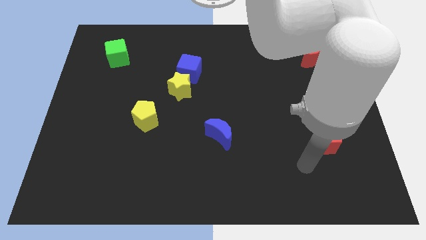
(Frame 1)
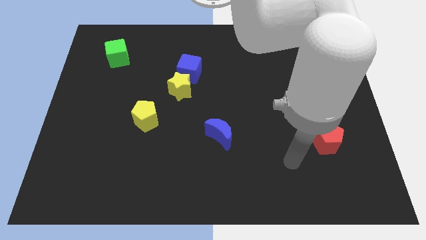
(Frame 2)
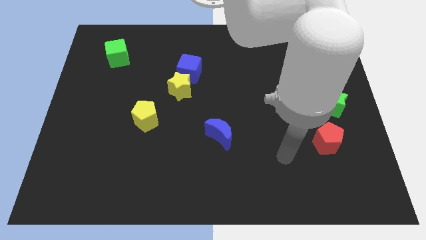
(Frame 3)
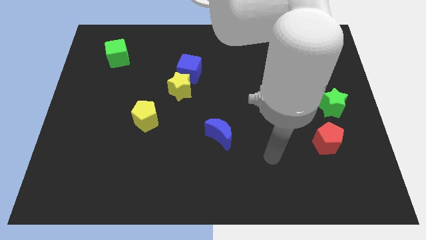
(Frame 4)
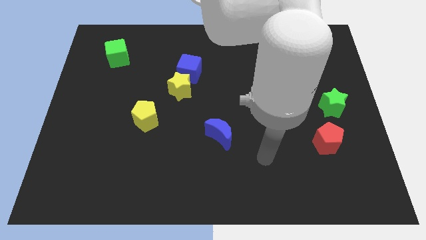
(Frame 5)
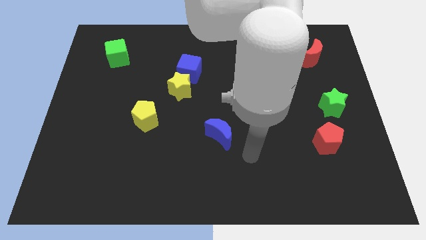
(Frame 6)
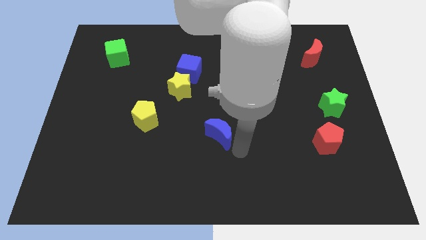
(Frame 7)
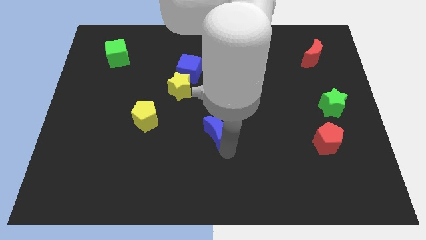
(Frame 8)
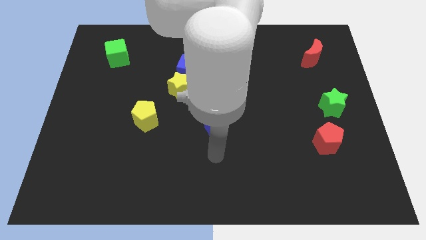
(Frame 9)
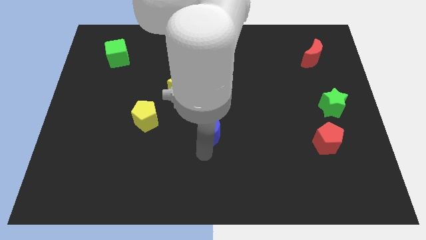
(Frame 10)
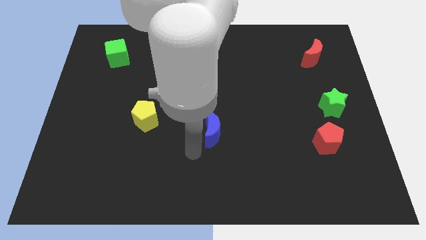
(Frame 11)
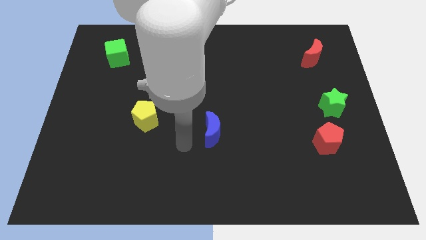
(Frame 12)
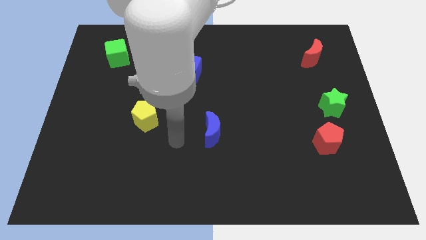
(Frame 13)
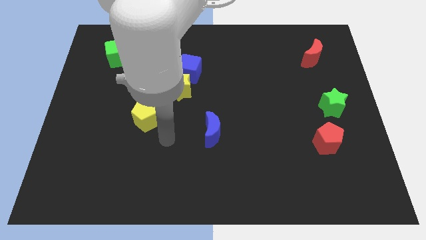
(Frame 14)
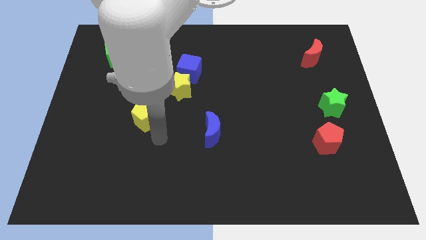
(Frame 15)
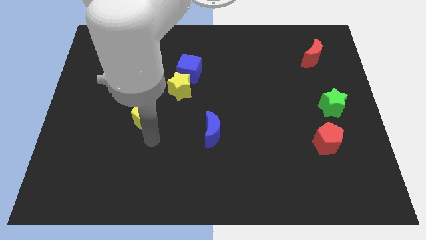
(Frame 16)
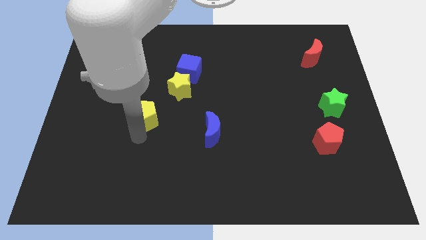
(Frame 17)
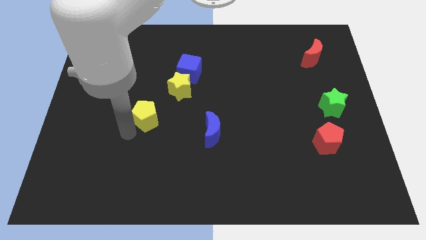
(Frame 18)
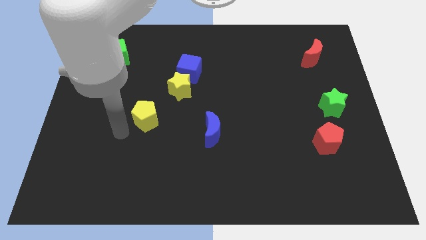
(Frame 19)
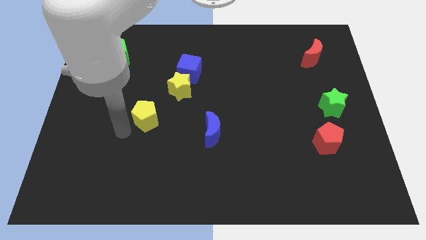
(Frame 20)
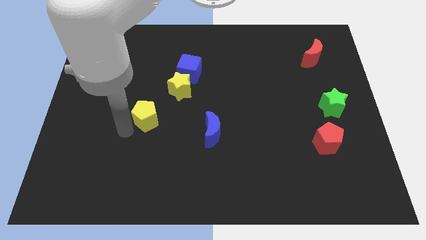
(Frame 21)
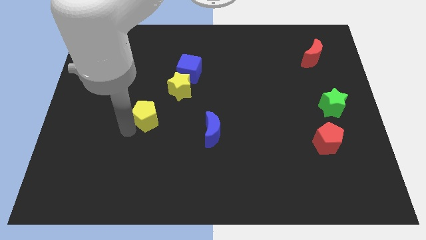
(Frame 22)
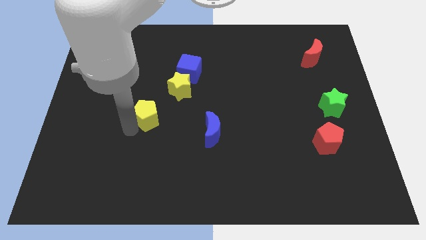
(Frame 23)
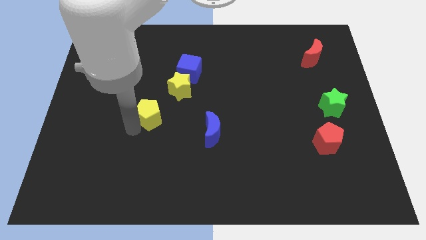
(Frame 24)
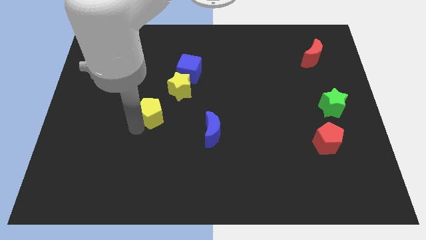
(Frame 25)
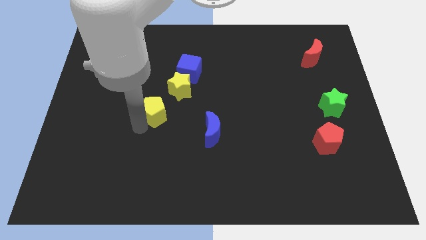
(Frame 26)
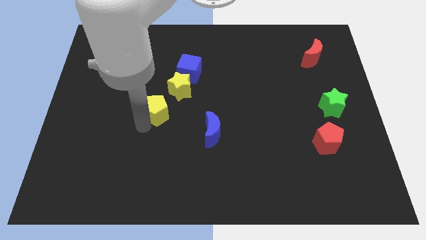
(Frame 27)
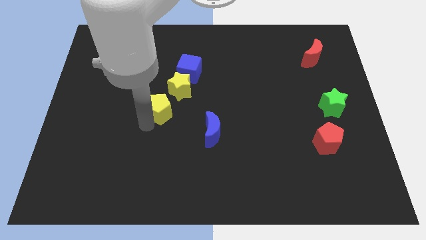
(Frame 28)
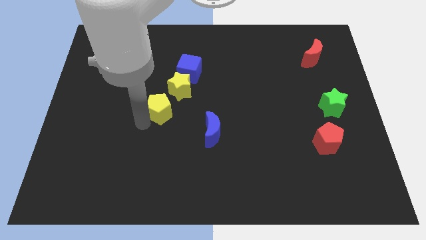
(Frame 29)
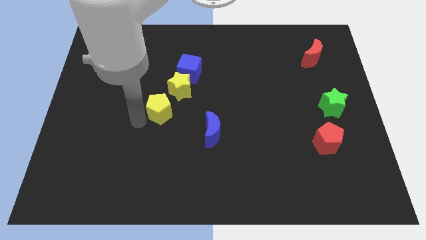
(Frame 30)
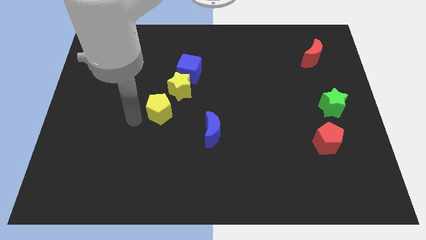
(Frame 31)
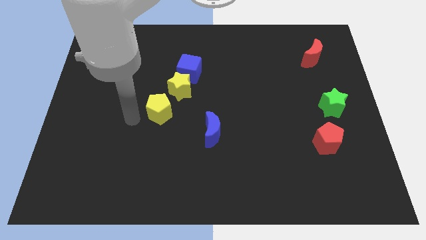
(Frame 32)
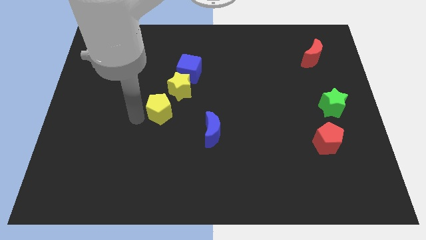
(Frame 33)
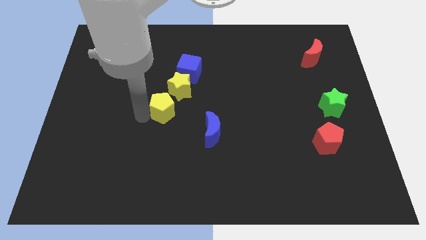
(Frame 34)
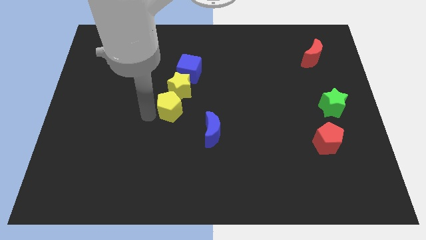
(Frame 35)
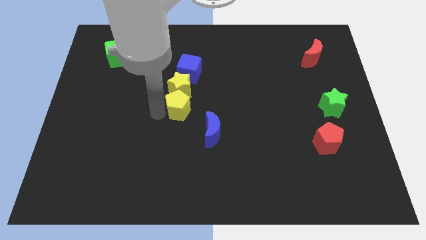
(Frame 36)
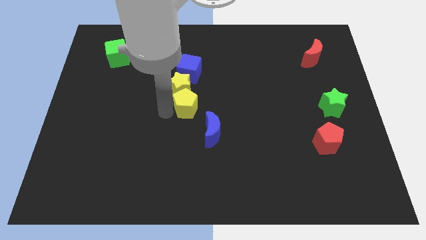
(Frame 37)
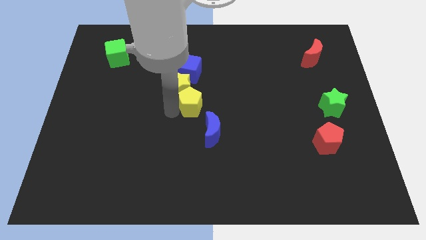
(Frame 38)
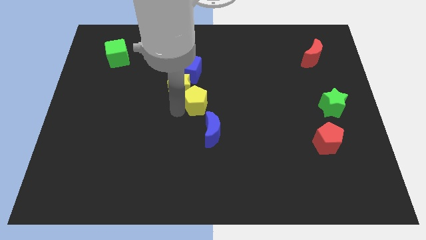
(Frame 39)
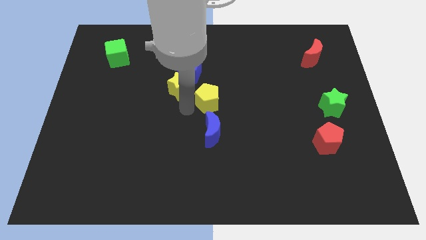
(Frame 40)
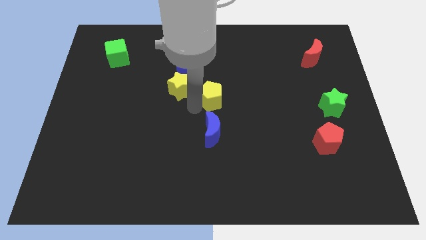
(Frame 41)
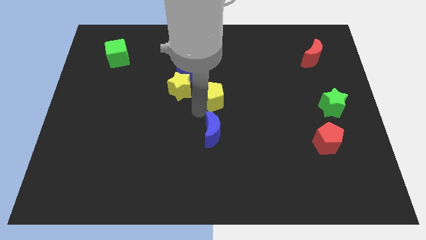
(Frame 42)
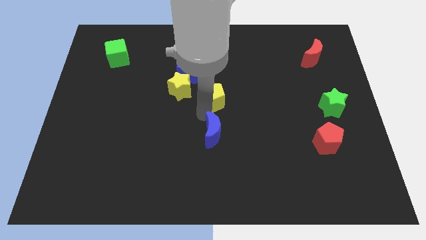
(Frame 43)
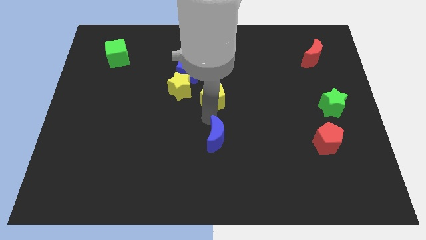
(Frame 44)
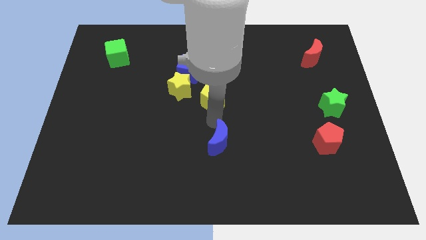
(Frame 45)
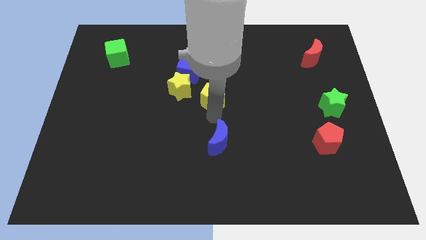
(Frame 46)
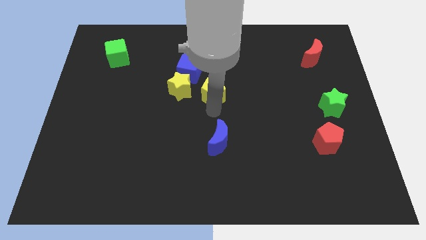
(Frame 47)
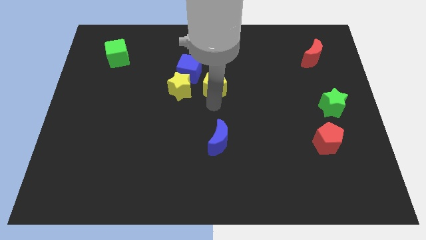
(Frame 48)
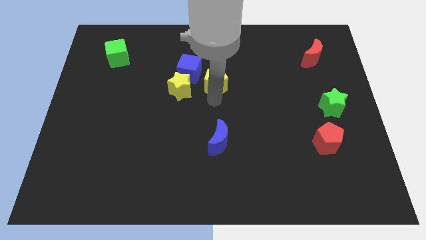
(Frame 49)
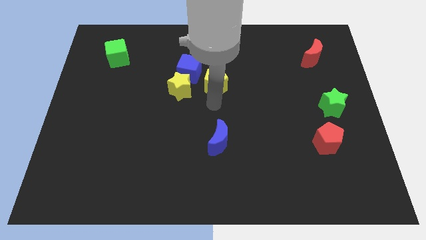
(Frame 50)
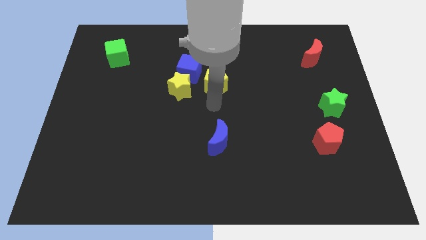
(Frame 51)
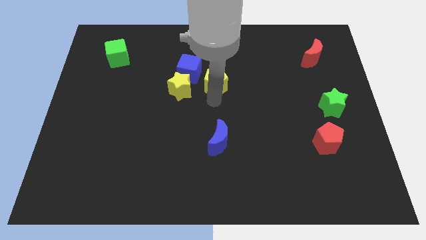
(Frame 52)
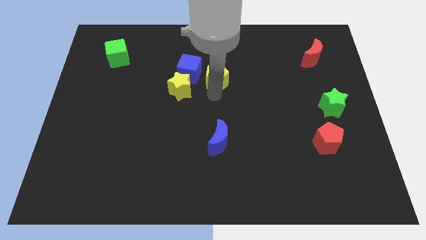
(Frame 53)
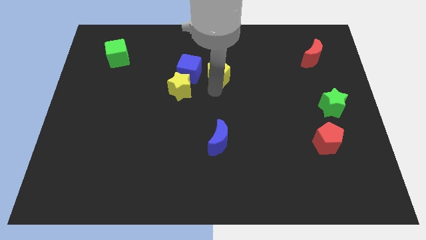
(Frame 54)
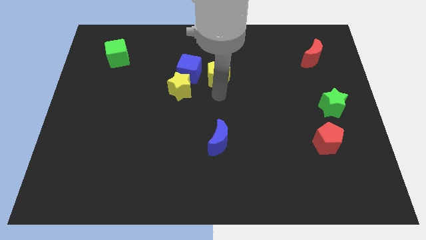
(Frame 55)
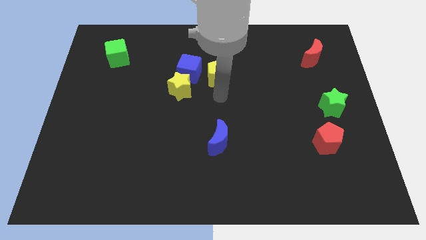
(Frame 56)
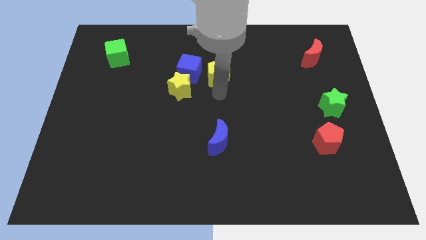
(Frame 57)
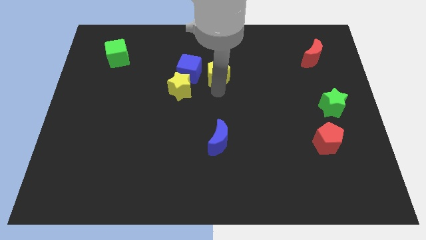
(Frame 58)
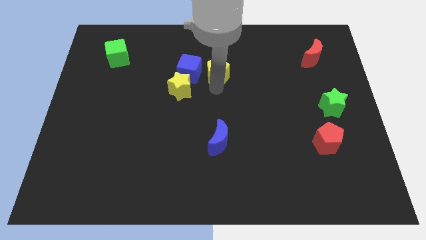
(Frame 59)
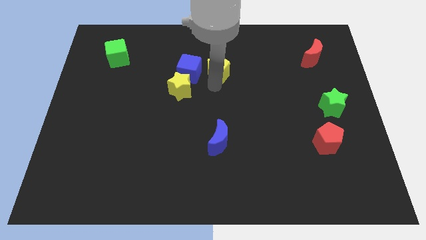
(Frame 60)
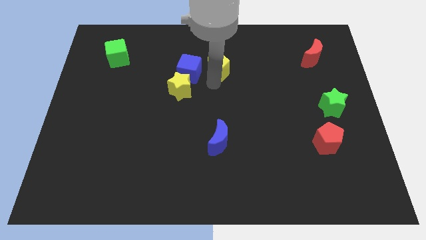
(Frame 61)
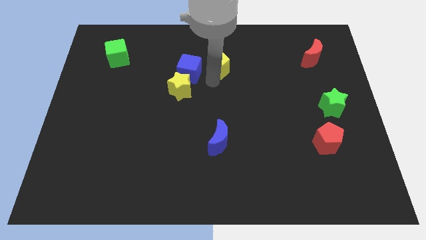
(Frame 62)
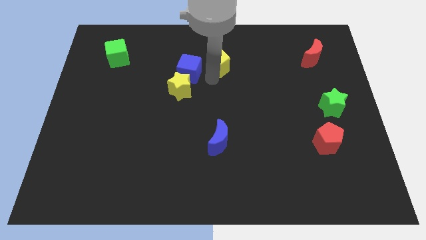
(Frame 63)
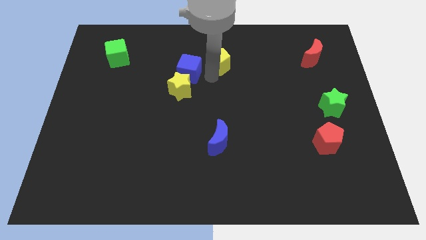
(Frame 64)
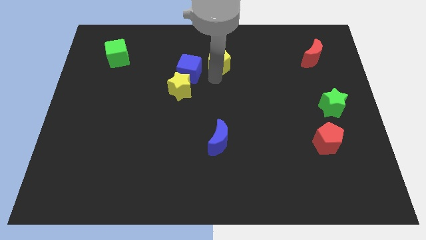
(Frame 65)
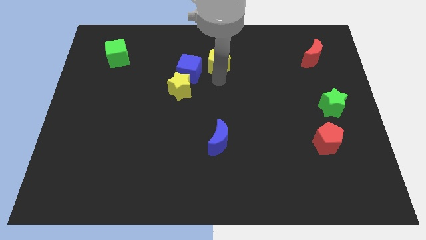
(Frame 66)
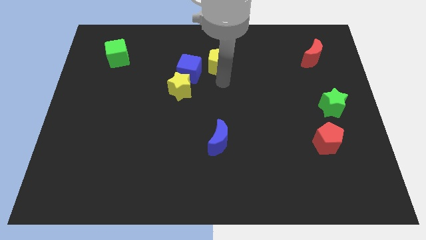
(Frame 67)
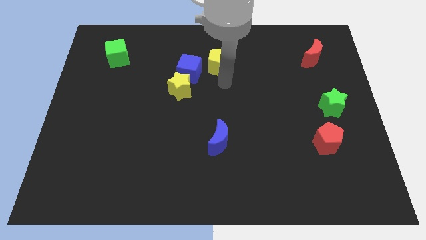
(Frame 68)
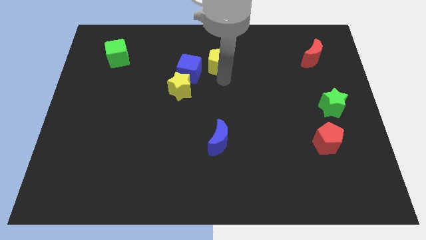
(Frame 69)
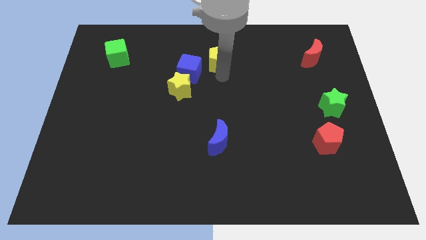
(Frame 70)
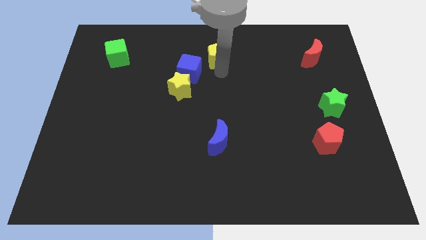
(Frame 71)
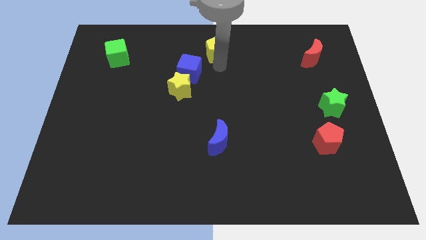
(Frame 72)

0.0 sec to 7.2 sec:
put the yellow pentagon to the top side
